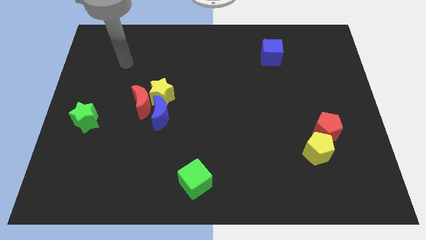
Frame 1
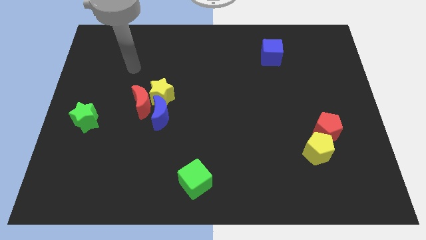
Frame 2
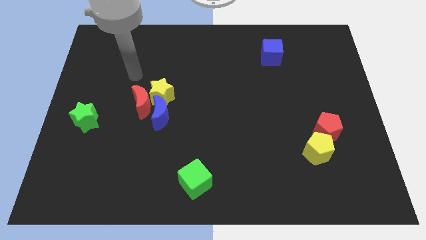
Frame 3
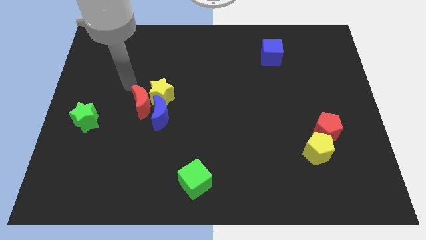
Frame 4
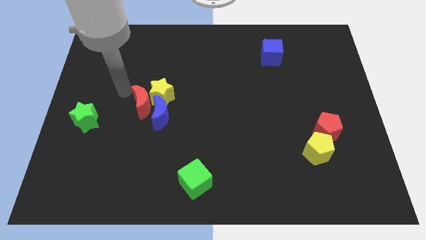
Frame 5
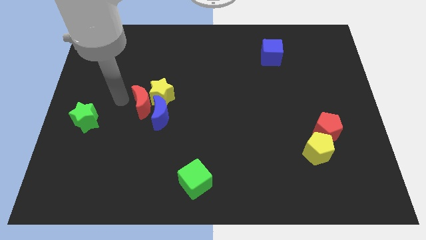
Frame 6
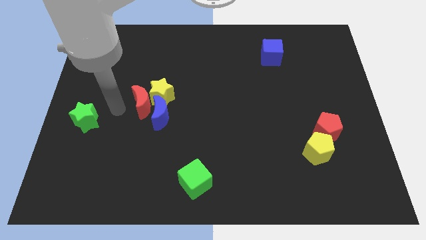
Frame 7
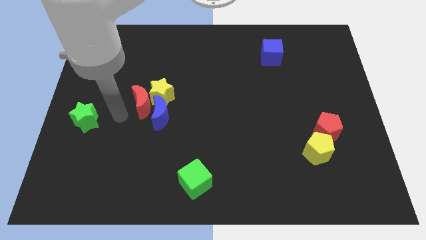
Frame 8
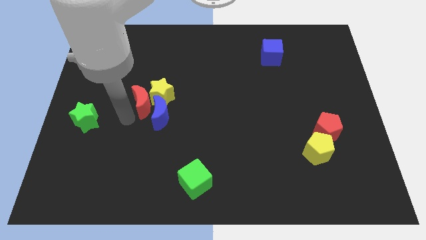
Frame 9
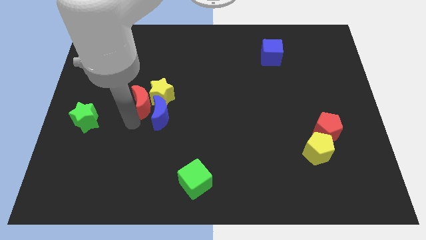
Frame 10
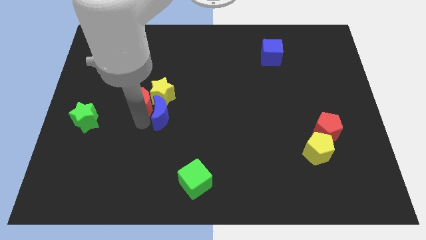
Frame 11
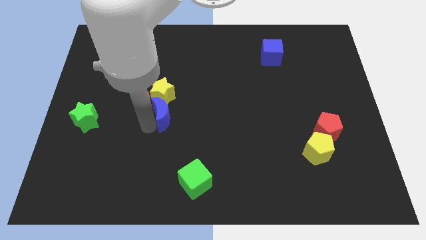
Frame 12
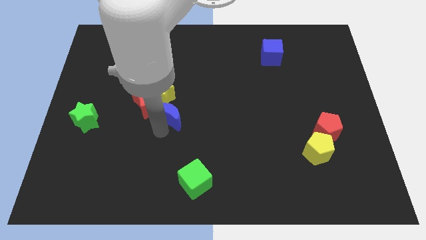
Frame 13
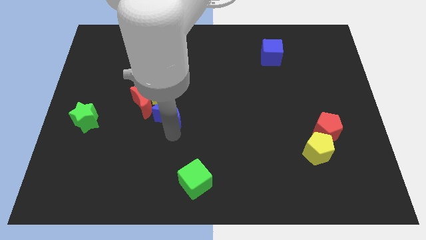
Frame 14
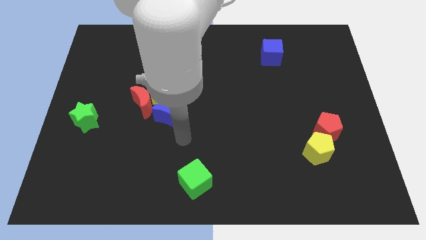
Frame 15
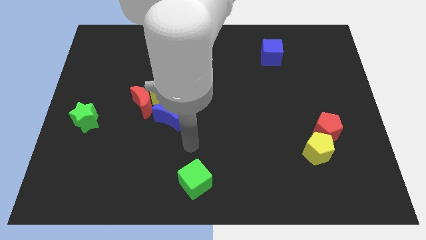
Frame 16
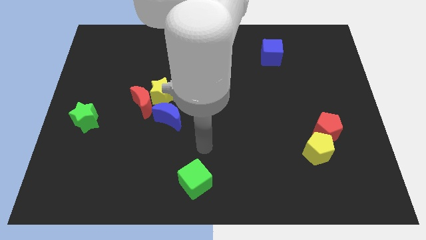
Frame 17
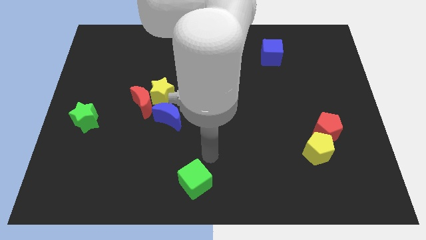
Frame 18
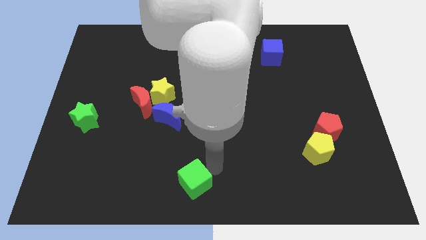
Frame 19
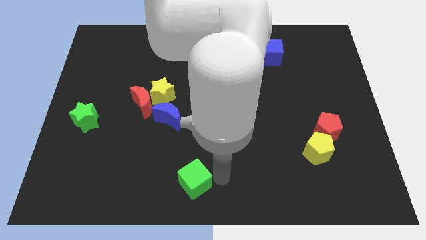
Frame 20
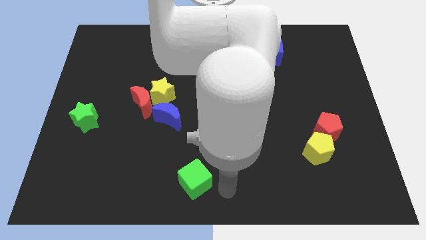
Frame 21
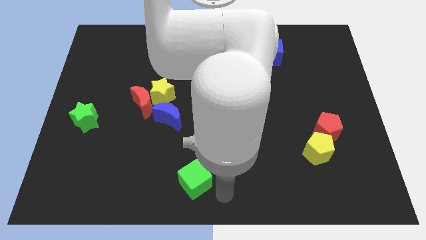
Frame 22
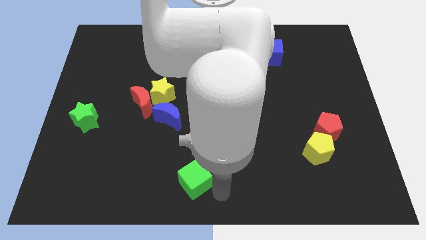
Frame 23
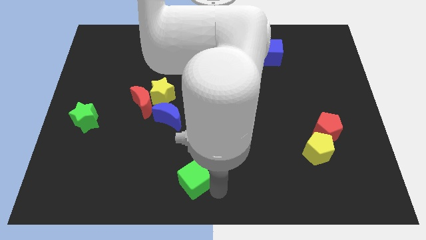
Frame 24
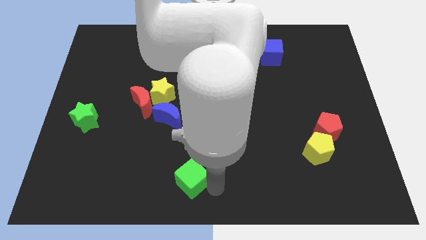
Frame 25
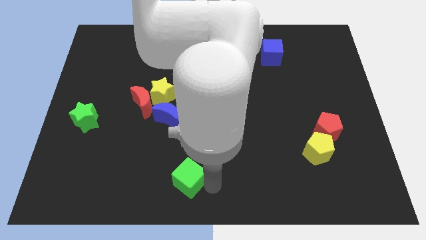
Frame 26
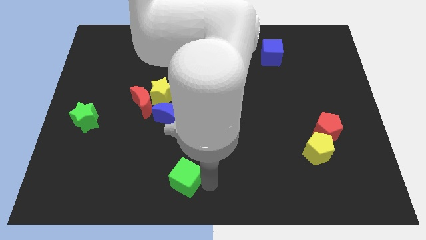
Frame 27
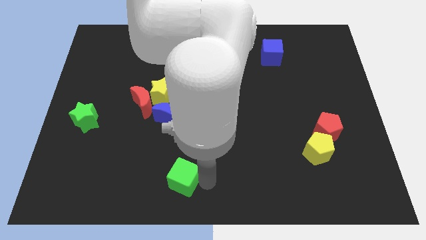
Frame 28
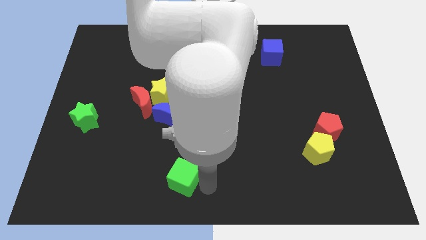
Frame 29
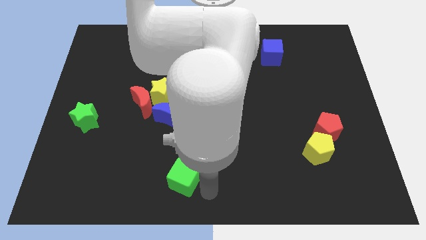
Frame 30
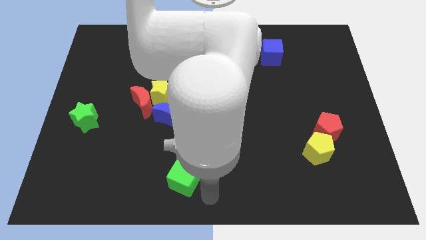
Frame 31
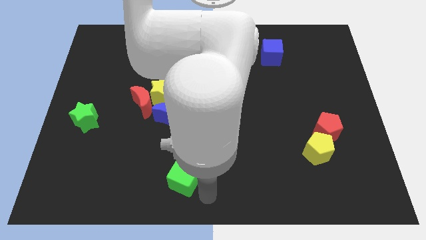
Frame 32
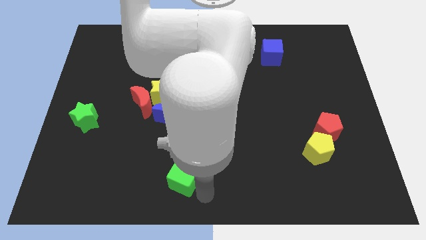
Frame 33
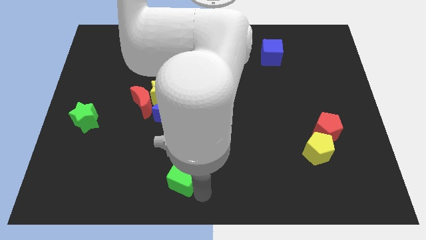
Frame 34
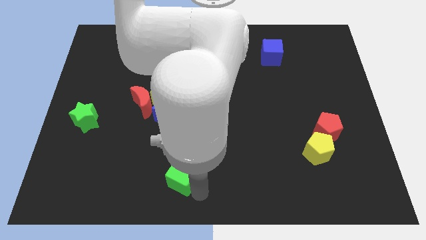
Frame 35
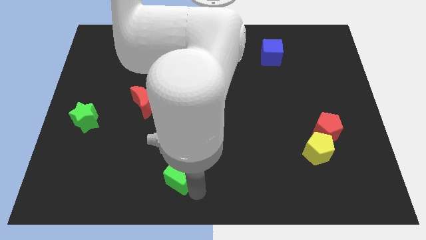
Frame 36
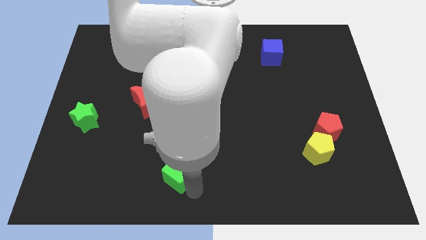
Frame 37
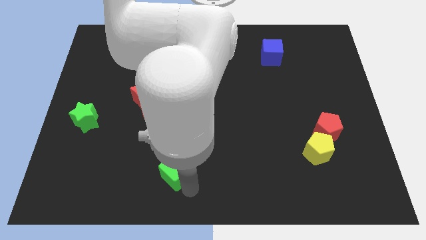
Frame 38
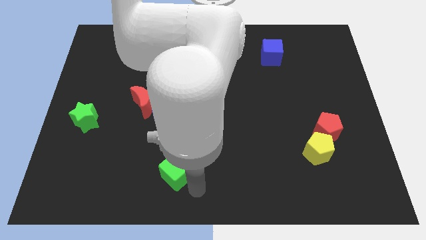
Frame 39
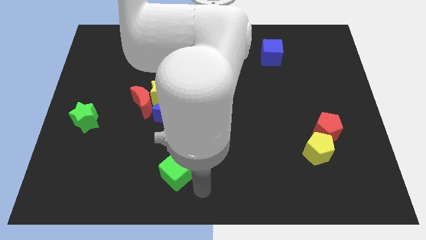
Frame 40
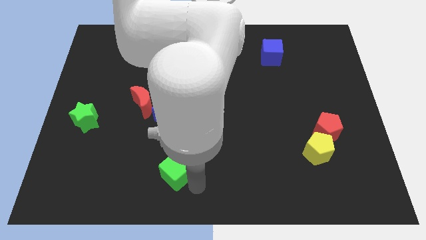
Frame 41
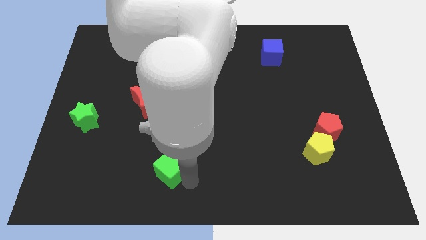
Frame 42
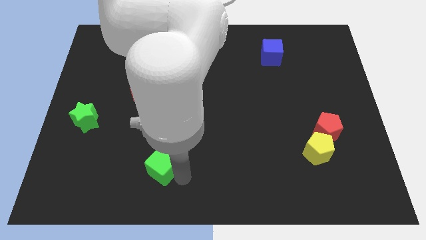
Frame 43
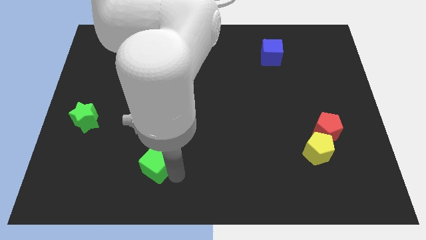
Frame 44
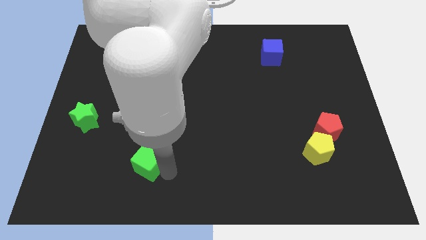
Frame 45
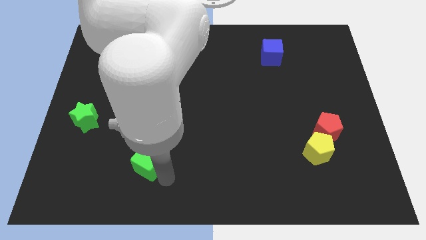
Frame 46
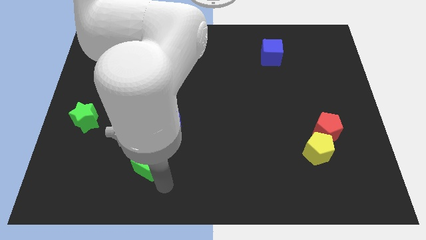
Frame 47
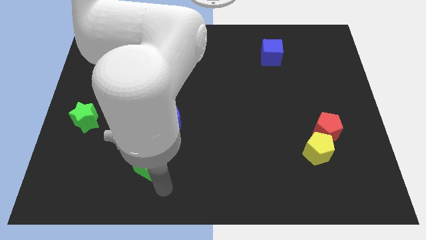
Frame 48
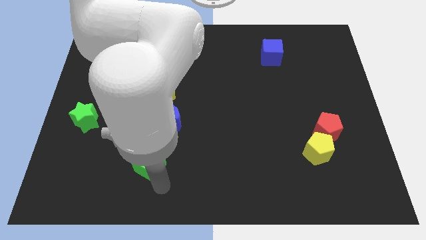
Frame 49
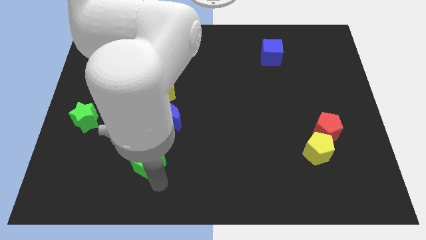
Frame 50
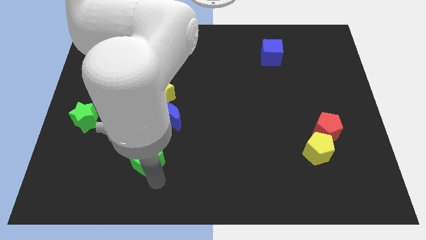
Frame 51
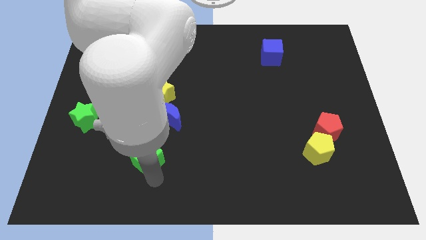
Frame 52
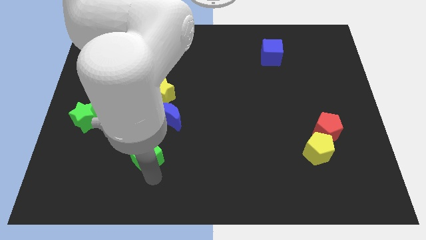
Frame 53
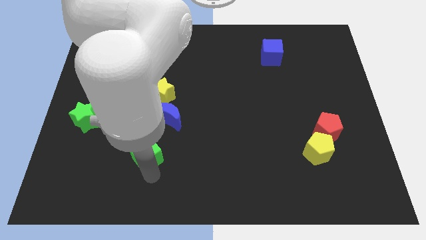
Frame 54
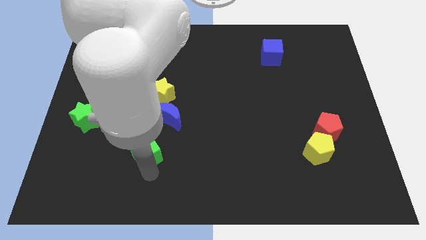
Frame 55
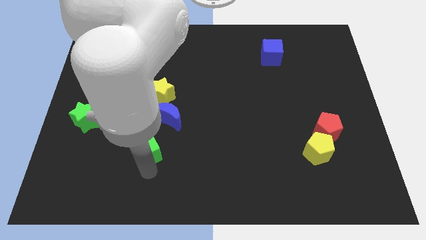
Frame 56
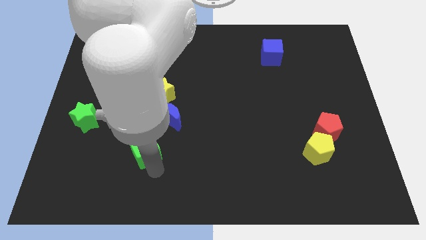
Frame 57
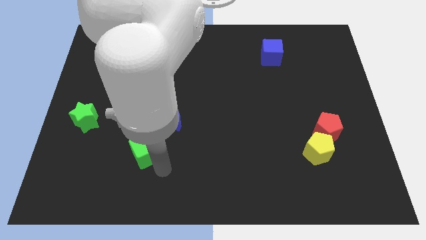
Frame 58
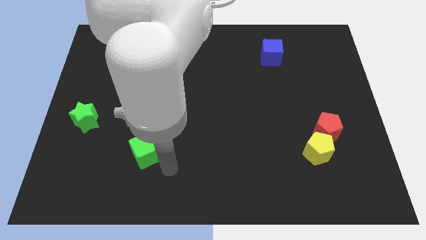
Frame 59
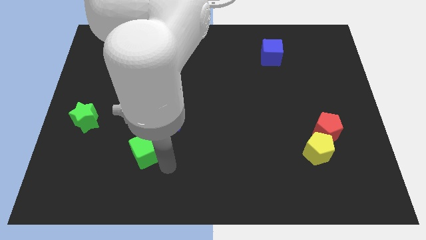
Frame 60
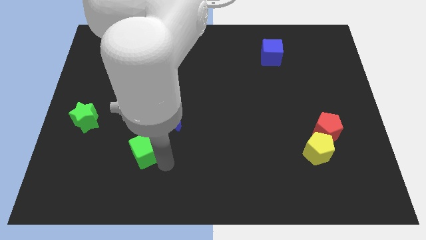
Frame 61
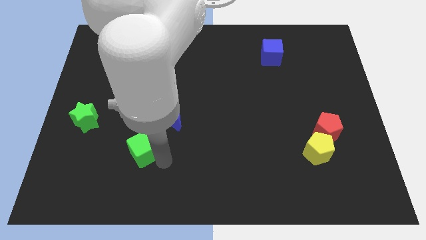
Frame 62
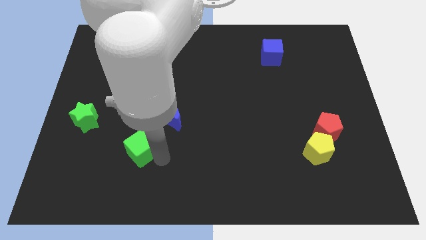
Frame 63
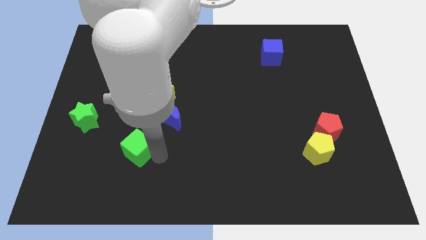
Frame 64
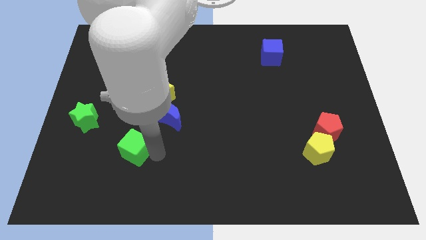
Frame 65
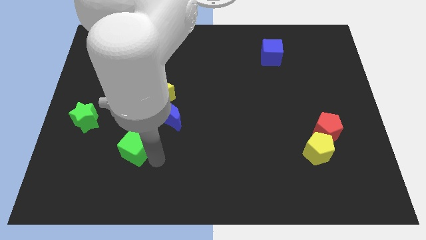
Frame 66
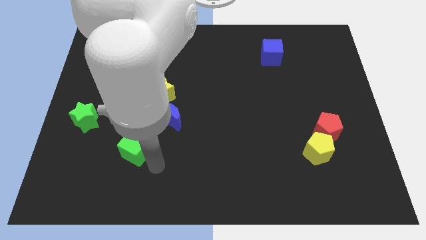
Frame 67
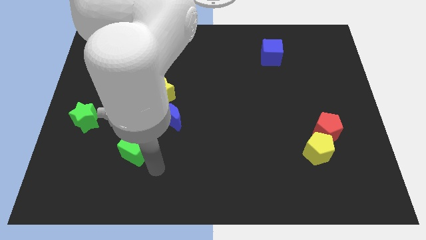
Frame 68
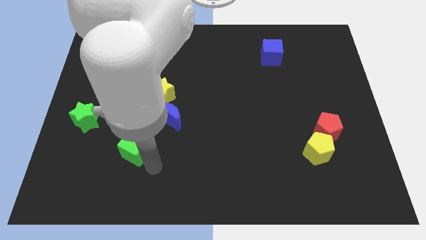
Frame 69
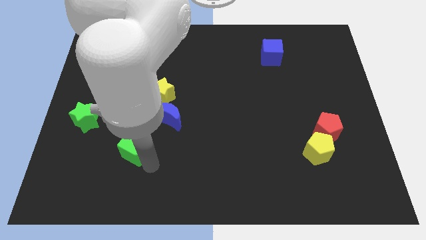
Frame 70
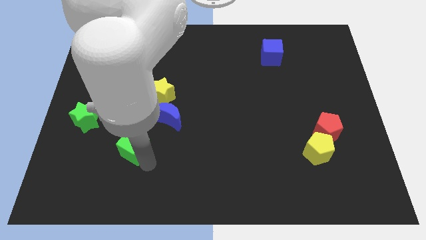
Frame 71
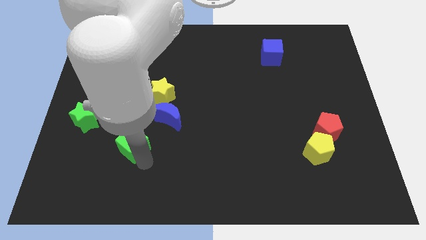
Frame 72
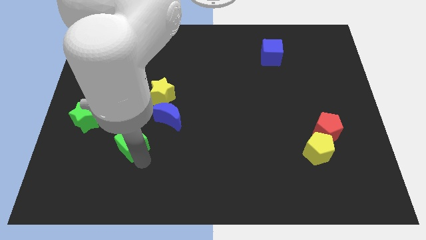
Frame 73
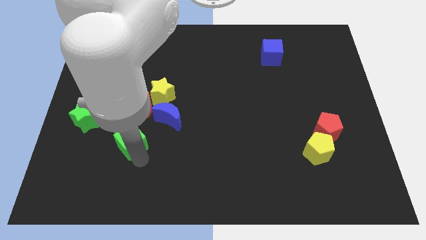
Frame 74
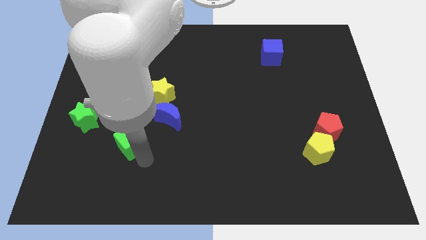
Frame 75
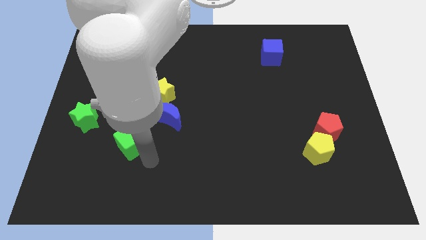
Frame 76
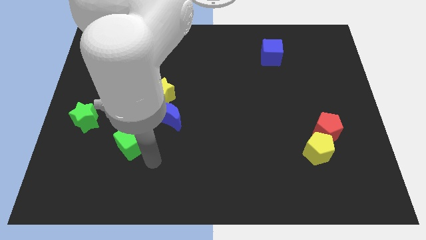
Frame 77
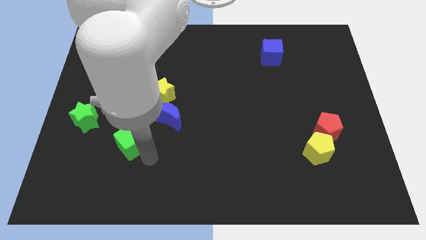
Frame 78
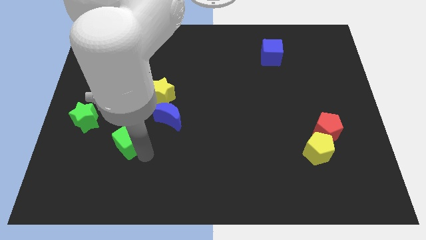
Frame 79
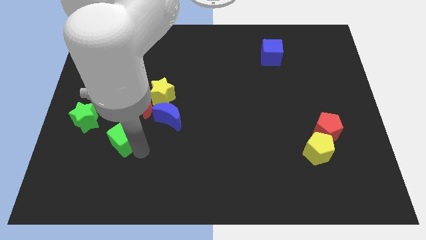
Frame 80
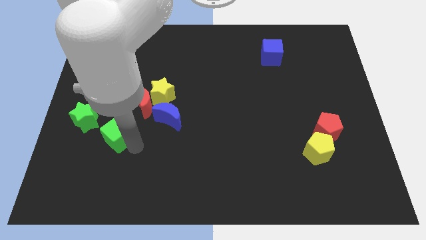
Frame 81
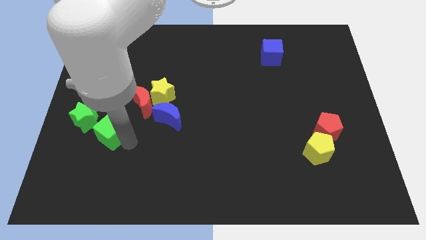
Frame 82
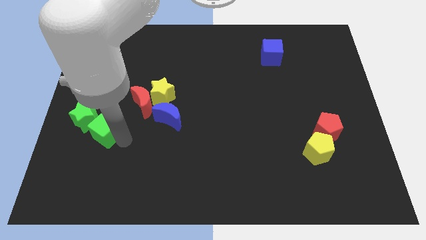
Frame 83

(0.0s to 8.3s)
put the green cube towards the green star
